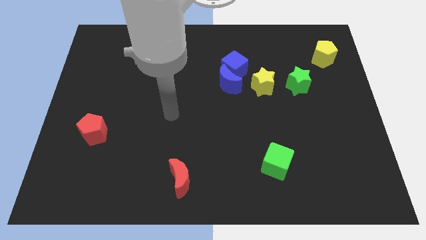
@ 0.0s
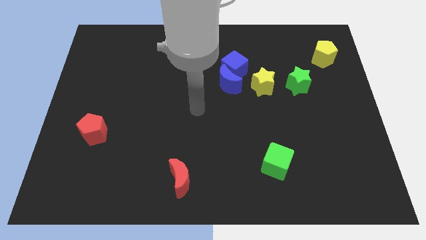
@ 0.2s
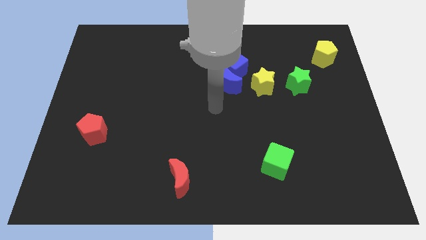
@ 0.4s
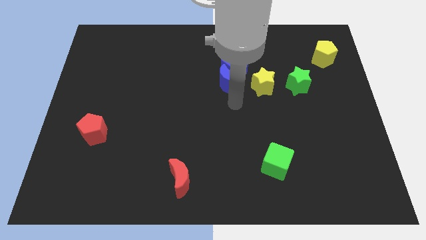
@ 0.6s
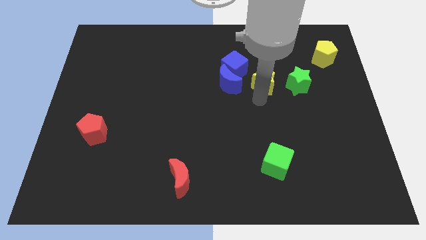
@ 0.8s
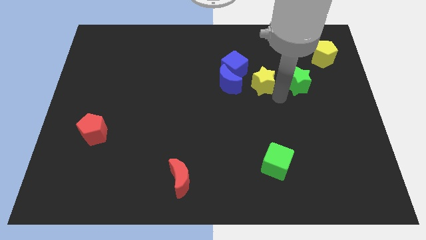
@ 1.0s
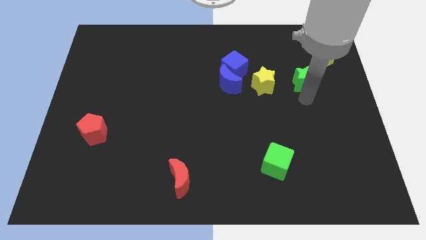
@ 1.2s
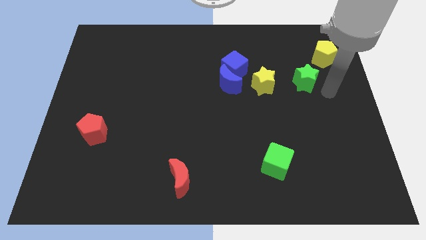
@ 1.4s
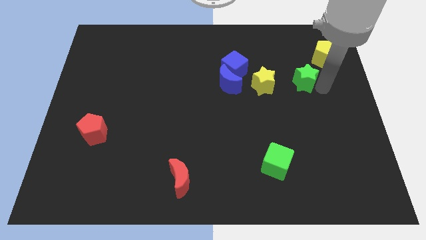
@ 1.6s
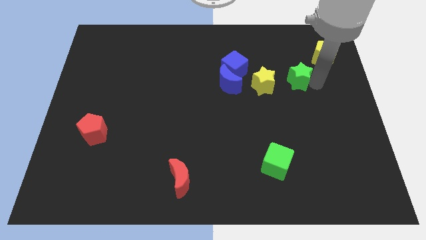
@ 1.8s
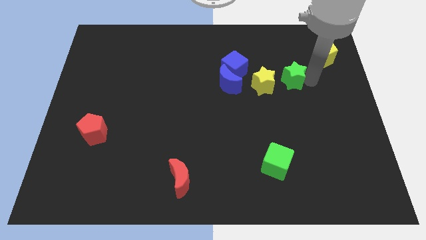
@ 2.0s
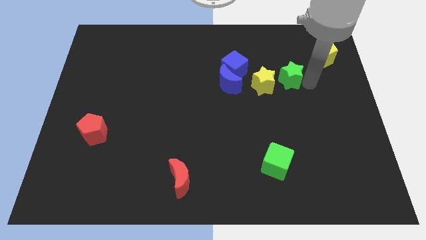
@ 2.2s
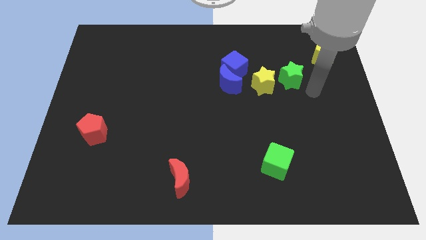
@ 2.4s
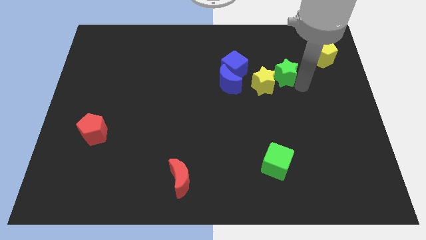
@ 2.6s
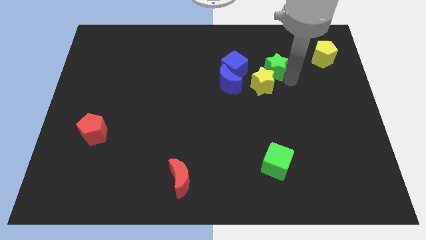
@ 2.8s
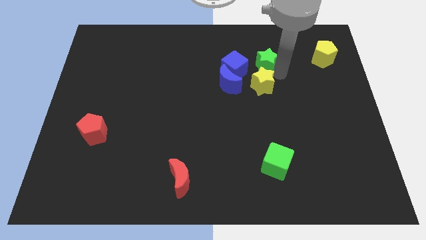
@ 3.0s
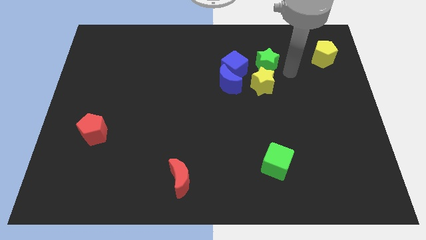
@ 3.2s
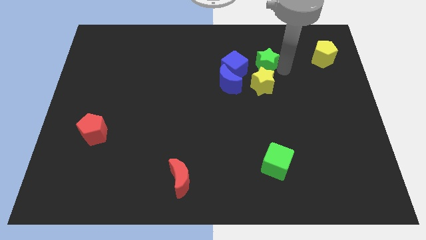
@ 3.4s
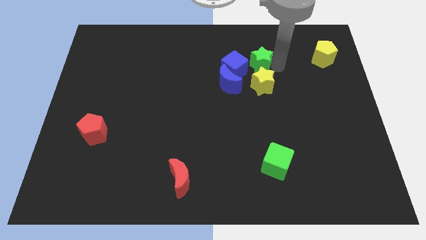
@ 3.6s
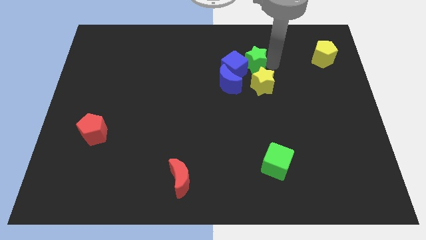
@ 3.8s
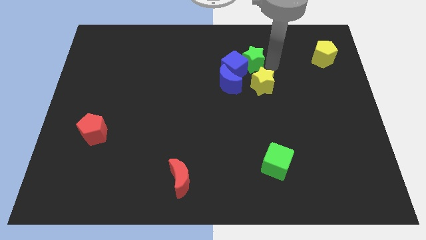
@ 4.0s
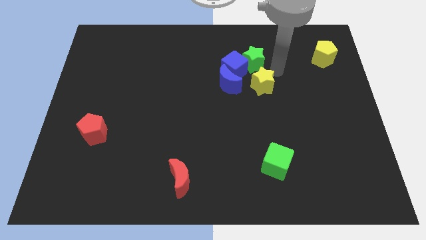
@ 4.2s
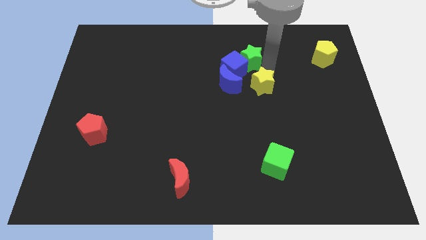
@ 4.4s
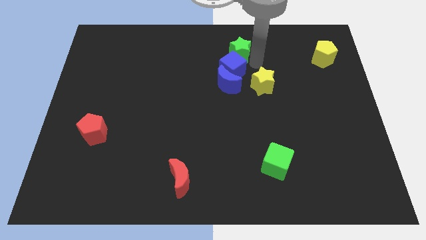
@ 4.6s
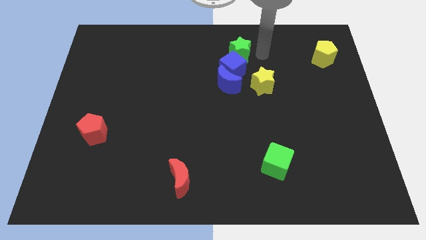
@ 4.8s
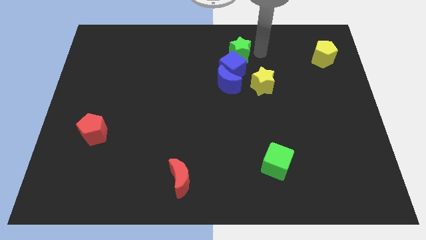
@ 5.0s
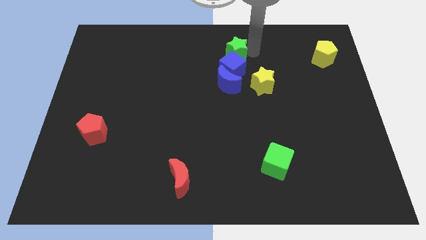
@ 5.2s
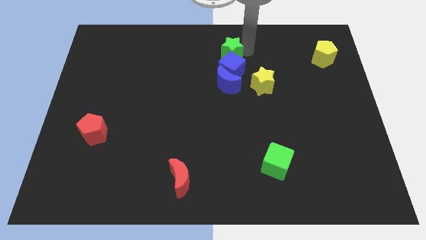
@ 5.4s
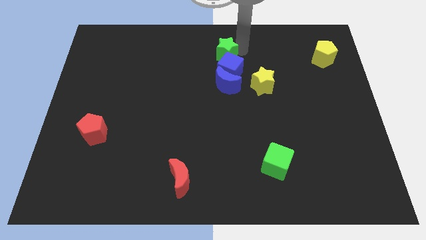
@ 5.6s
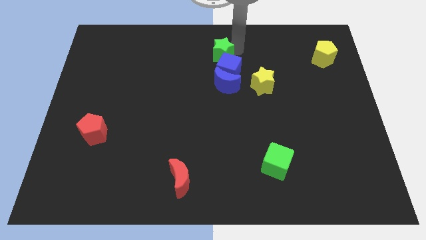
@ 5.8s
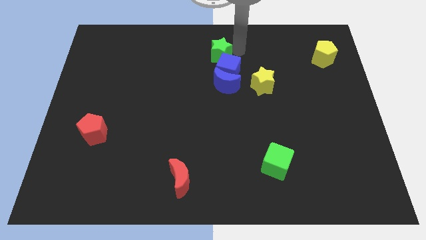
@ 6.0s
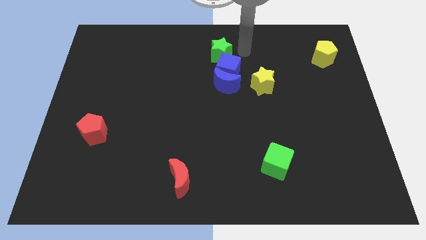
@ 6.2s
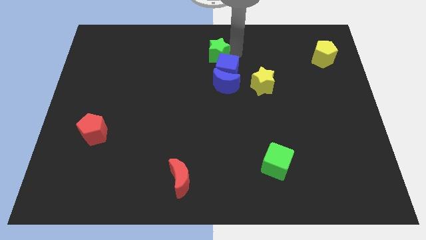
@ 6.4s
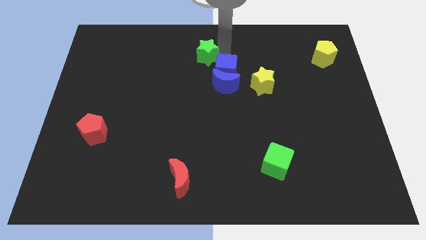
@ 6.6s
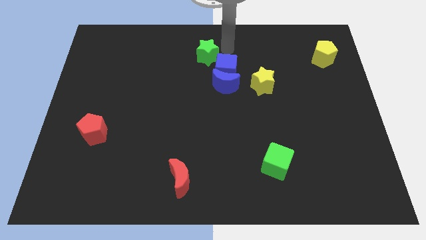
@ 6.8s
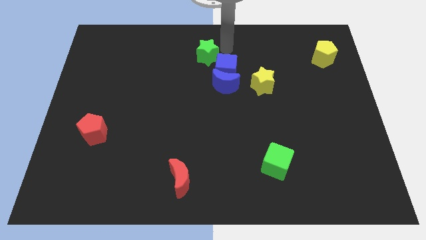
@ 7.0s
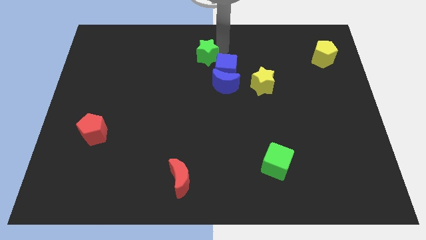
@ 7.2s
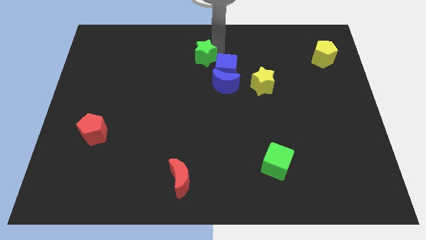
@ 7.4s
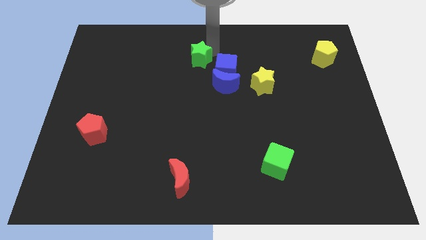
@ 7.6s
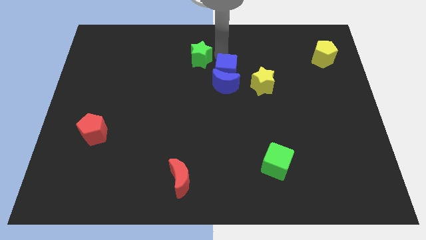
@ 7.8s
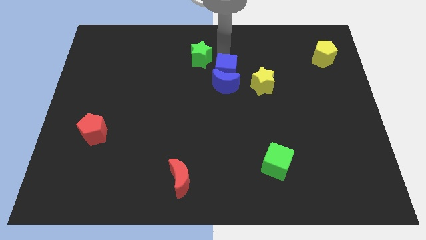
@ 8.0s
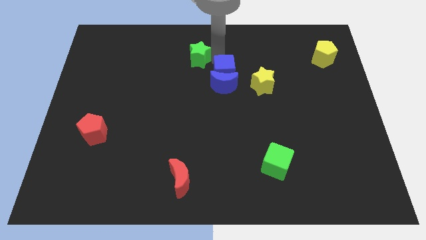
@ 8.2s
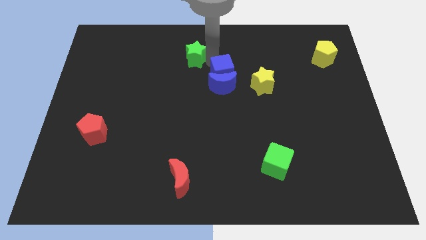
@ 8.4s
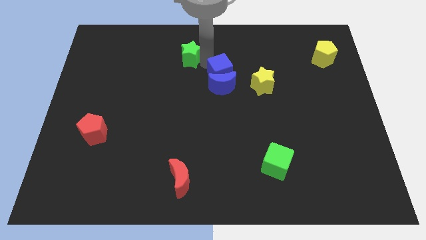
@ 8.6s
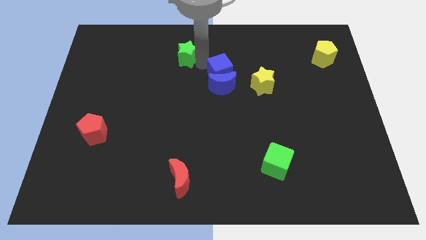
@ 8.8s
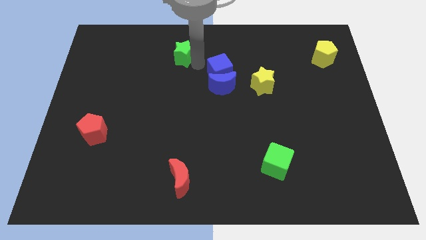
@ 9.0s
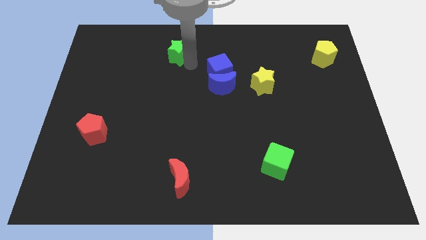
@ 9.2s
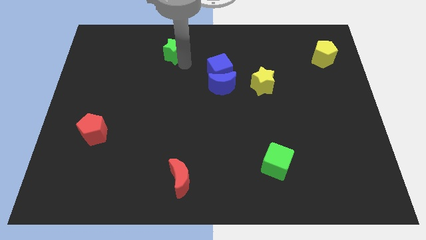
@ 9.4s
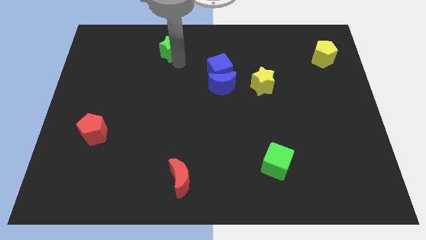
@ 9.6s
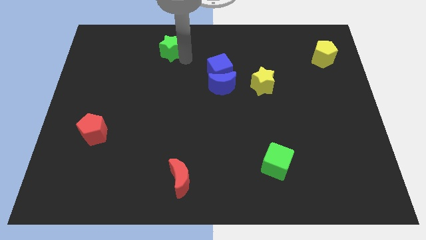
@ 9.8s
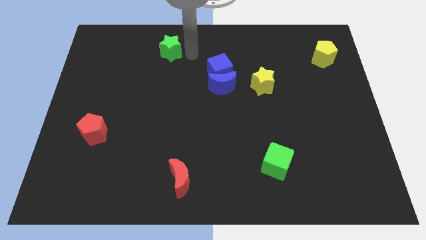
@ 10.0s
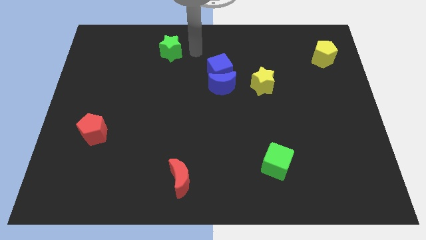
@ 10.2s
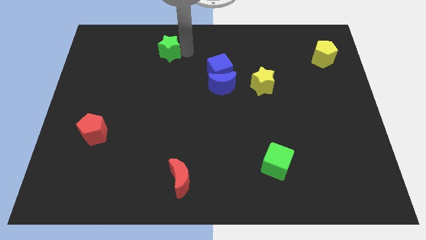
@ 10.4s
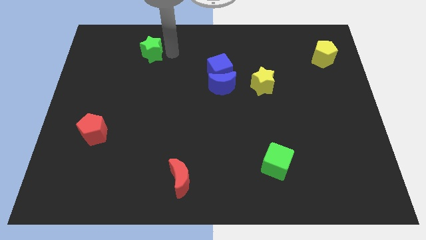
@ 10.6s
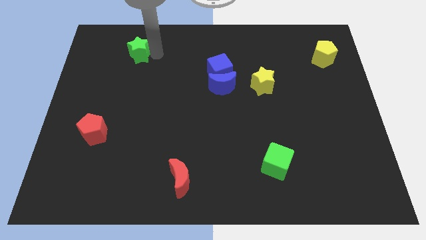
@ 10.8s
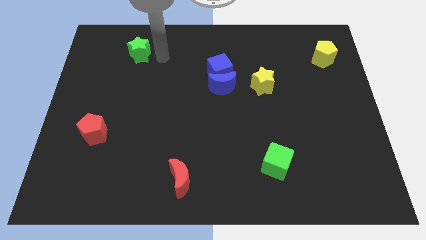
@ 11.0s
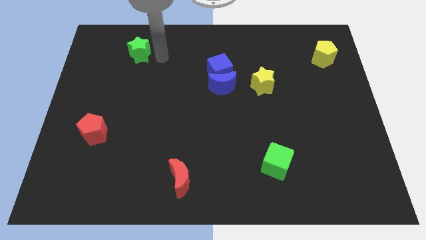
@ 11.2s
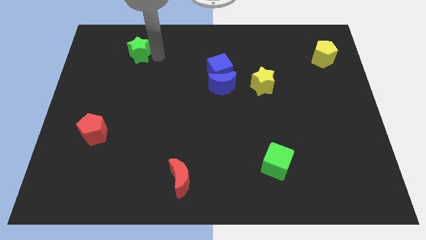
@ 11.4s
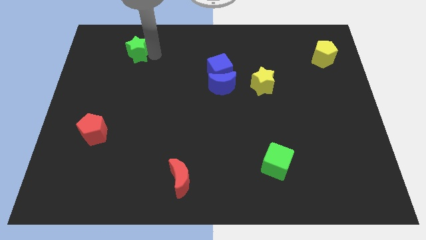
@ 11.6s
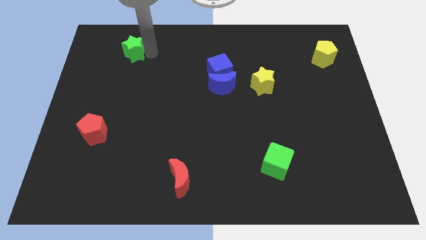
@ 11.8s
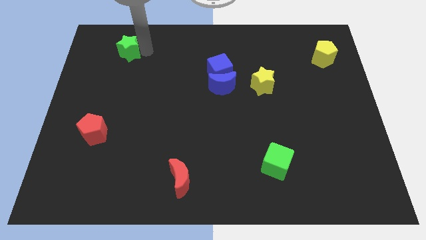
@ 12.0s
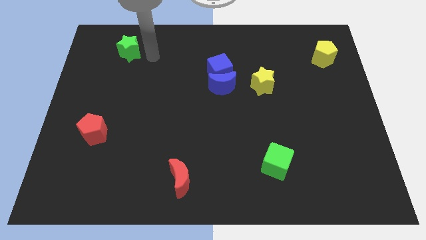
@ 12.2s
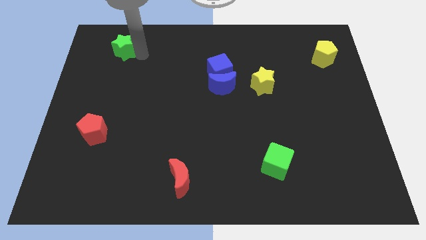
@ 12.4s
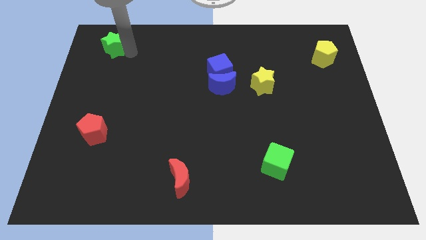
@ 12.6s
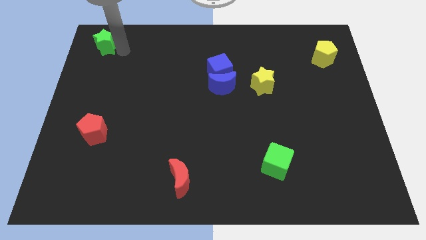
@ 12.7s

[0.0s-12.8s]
slide the green star to the top left of the board
